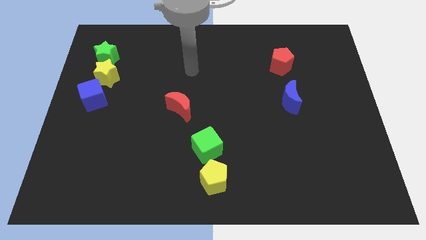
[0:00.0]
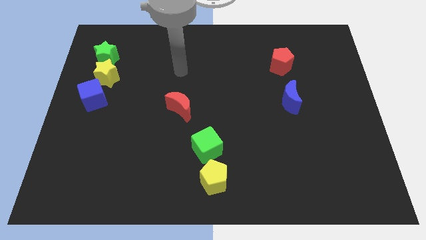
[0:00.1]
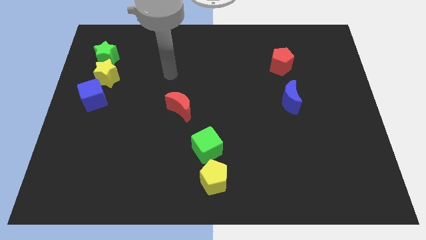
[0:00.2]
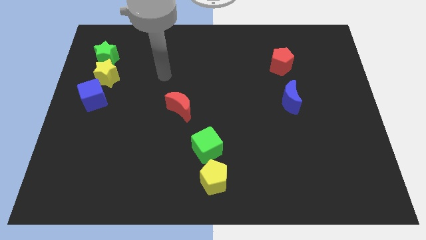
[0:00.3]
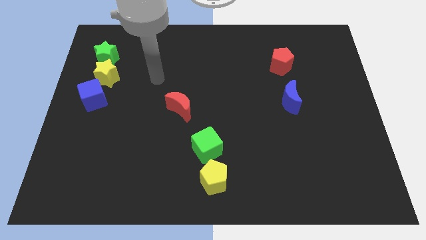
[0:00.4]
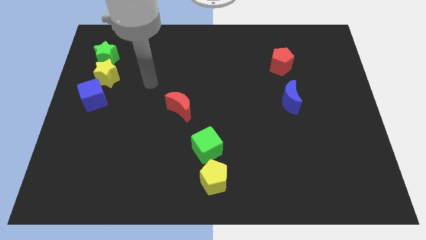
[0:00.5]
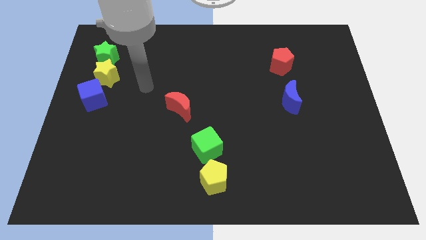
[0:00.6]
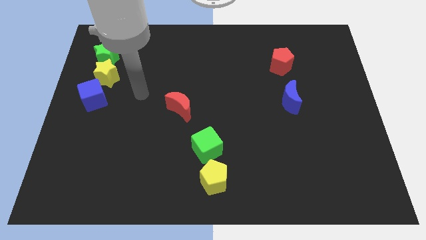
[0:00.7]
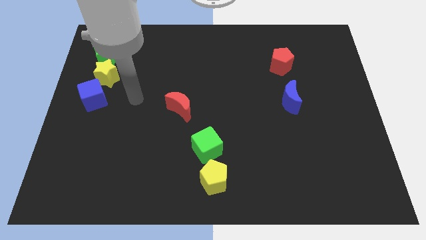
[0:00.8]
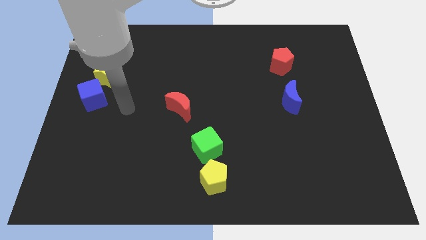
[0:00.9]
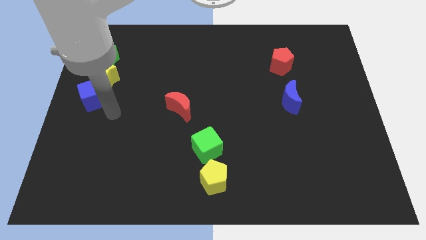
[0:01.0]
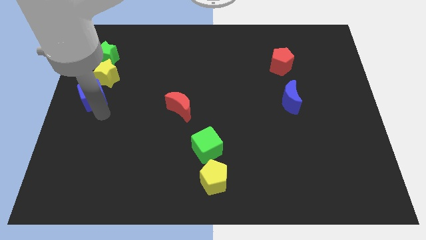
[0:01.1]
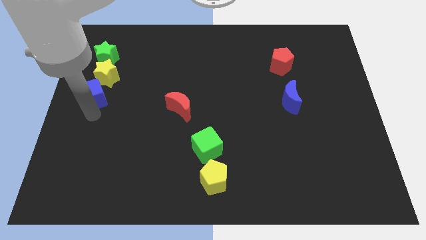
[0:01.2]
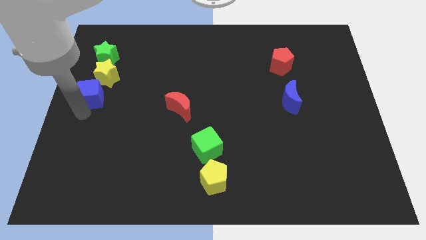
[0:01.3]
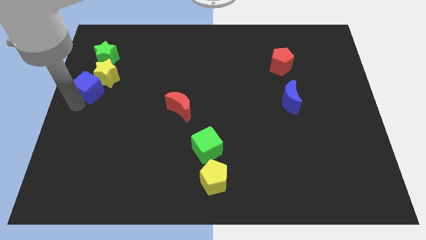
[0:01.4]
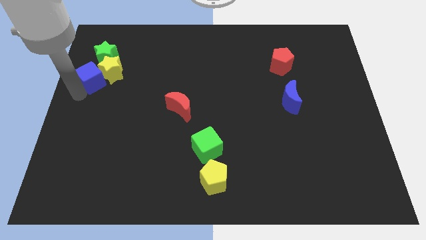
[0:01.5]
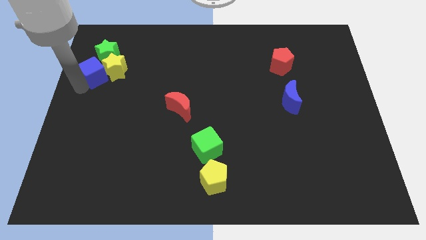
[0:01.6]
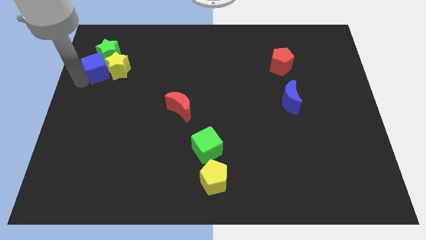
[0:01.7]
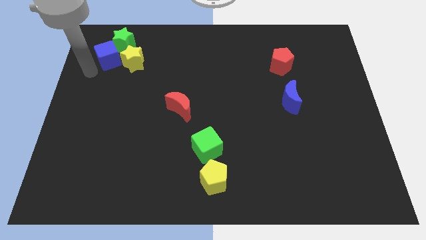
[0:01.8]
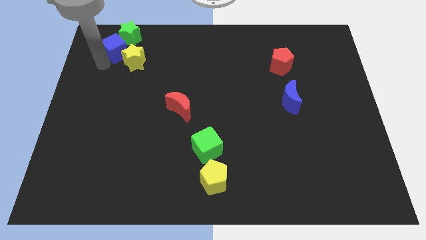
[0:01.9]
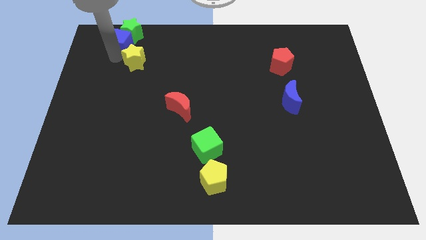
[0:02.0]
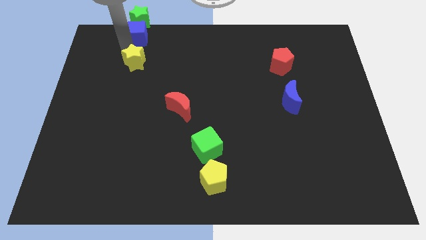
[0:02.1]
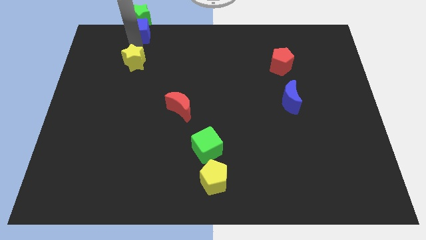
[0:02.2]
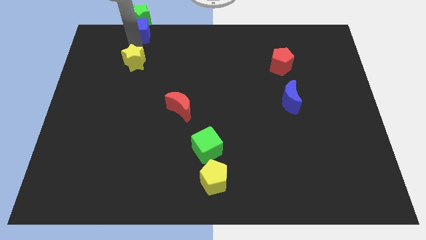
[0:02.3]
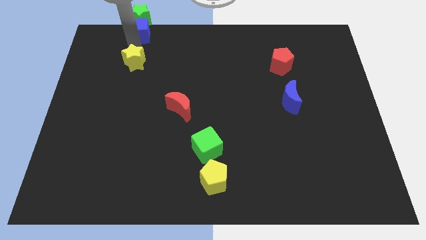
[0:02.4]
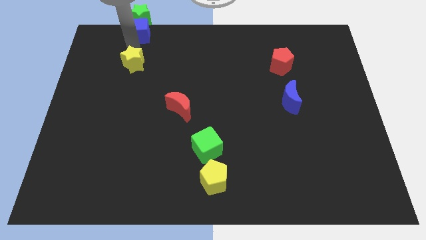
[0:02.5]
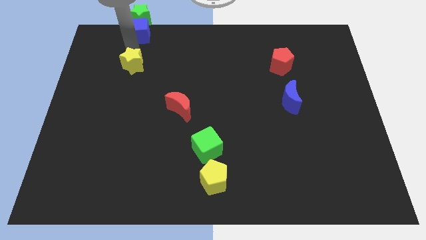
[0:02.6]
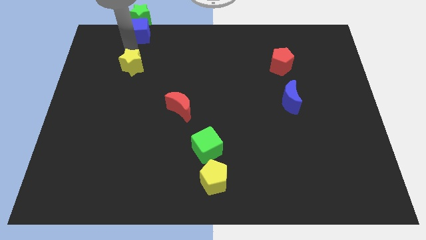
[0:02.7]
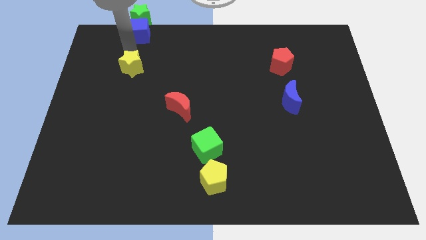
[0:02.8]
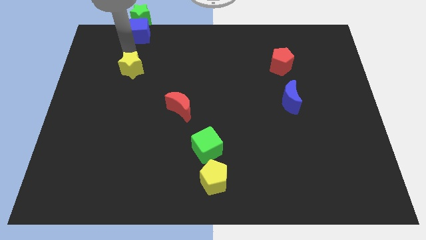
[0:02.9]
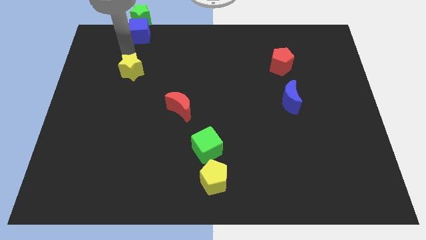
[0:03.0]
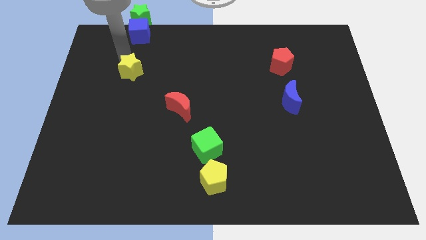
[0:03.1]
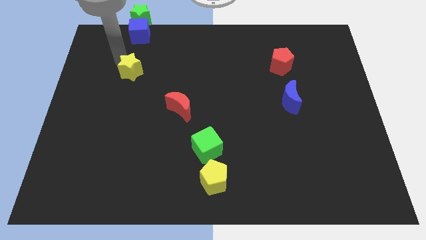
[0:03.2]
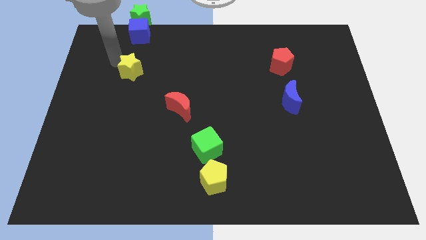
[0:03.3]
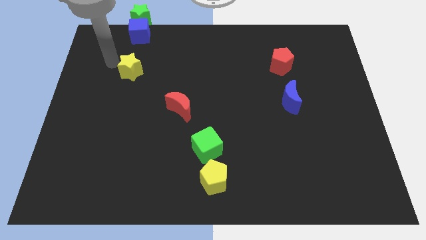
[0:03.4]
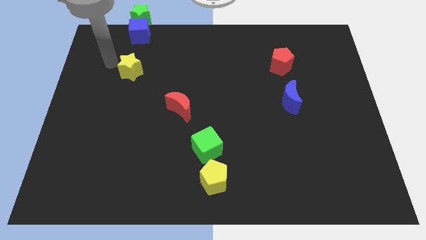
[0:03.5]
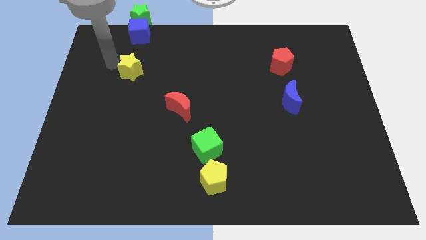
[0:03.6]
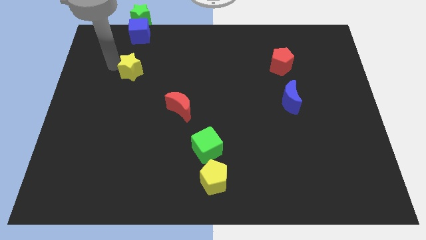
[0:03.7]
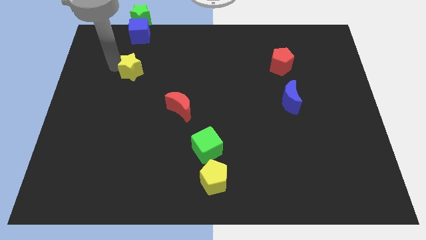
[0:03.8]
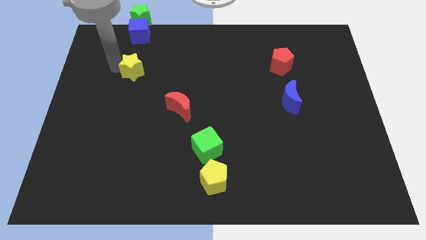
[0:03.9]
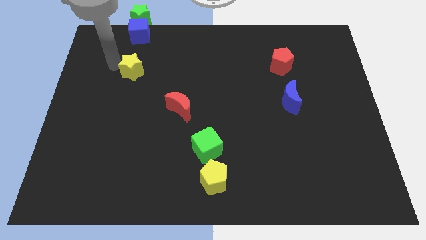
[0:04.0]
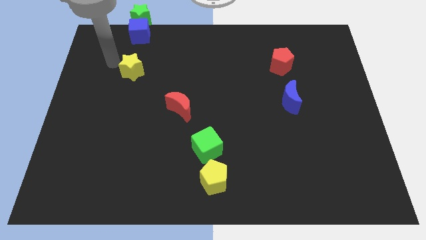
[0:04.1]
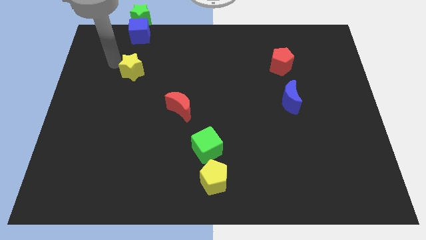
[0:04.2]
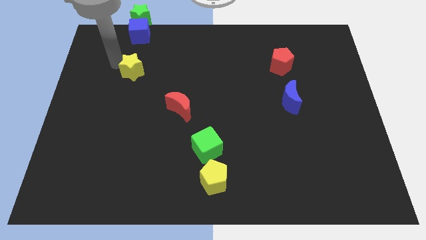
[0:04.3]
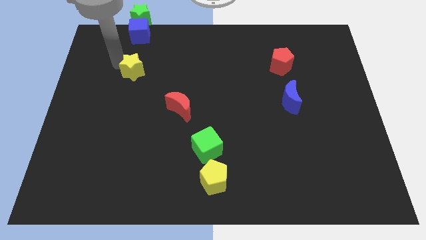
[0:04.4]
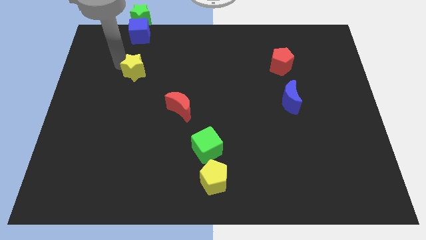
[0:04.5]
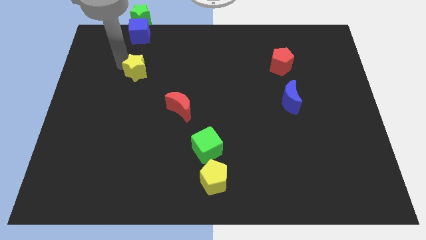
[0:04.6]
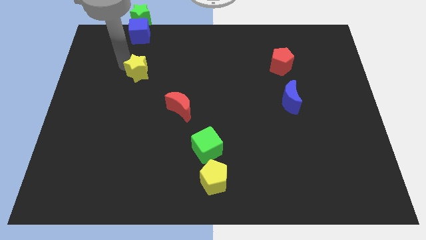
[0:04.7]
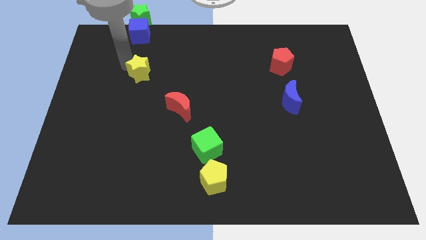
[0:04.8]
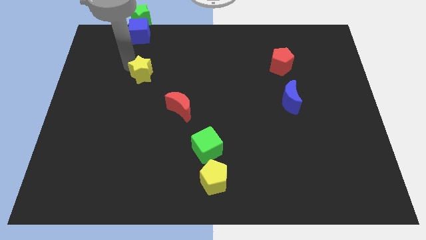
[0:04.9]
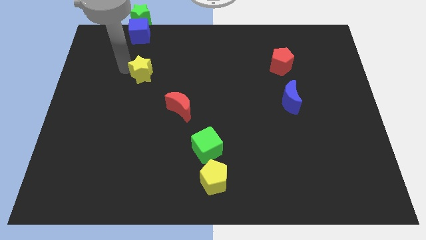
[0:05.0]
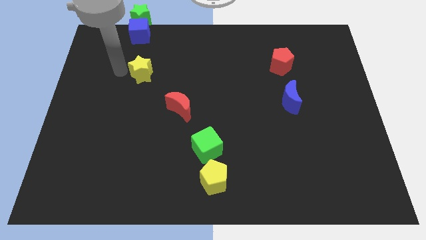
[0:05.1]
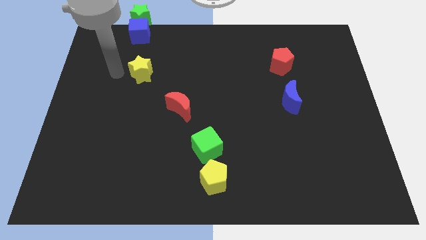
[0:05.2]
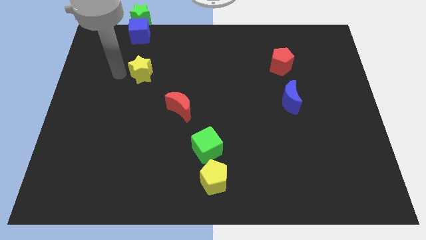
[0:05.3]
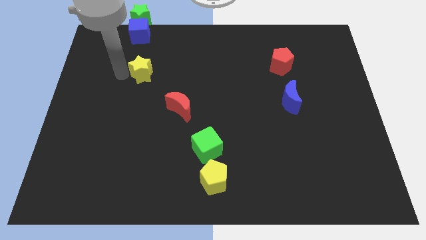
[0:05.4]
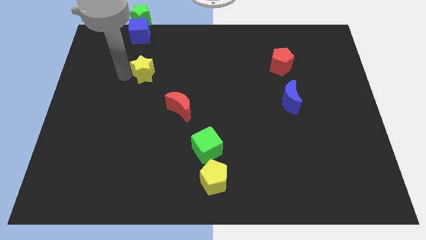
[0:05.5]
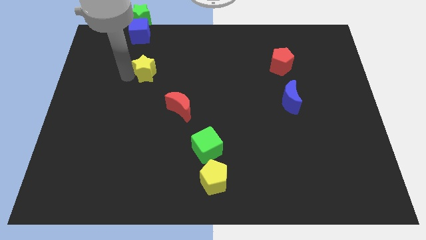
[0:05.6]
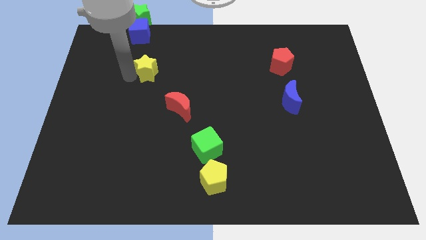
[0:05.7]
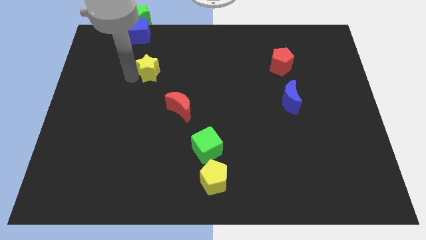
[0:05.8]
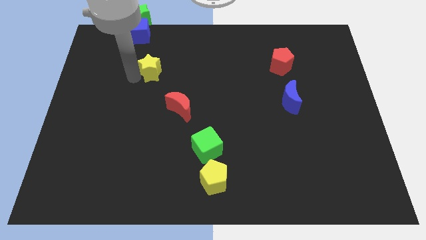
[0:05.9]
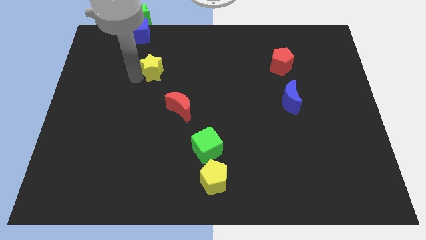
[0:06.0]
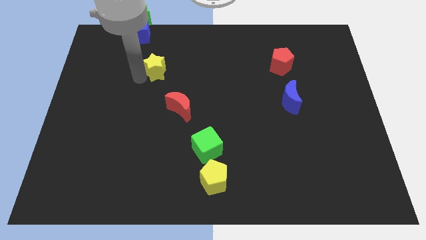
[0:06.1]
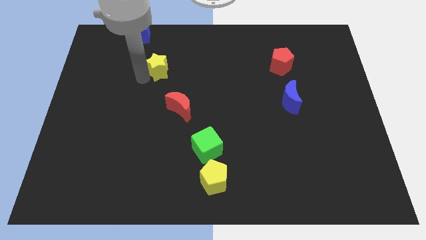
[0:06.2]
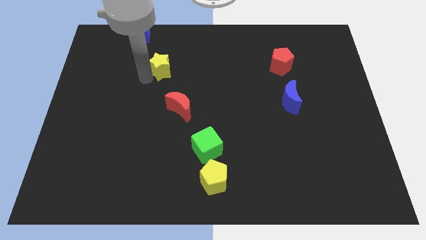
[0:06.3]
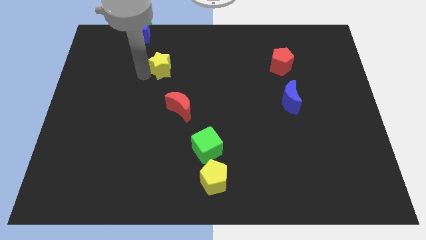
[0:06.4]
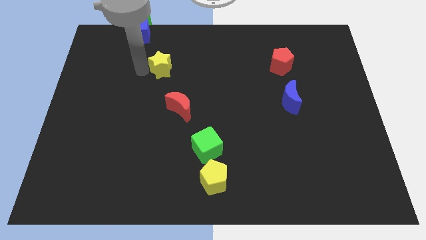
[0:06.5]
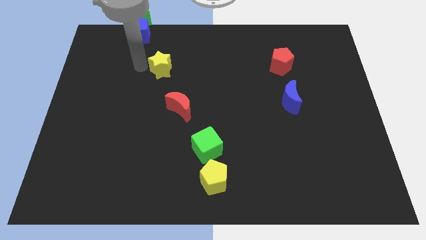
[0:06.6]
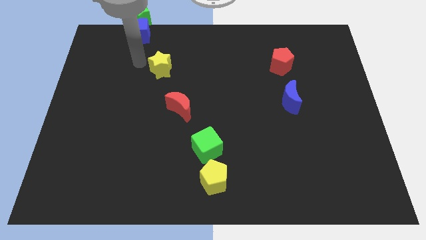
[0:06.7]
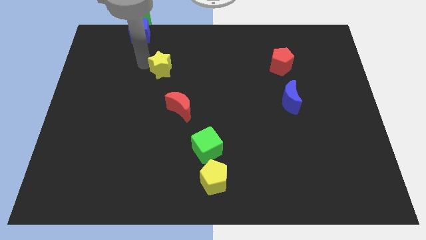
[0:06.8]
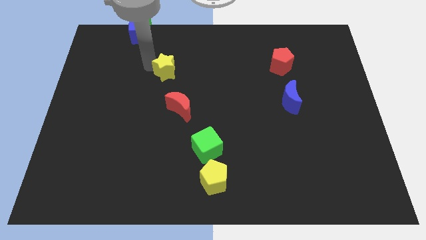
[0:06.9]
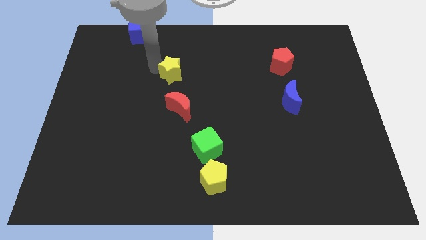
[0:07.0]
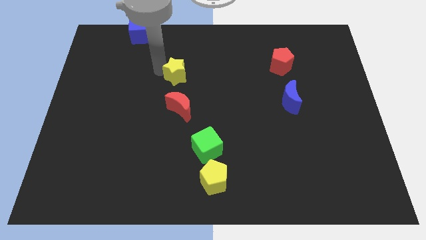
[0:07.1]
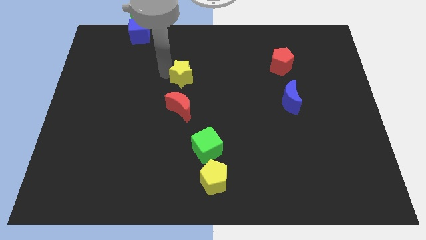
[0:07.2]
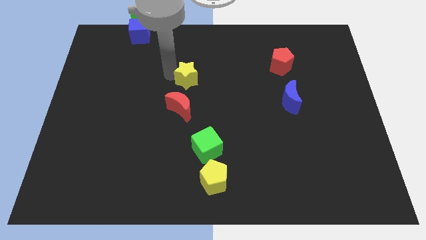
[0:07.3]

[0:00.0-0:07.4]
push the yellow star to the right

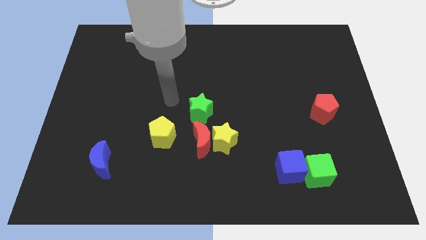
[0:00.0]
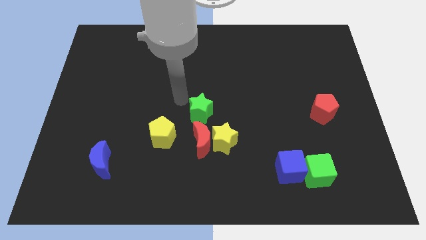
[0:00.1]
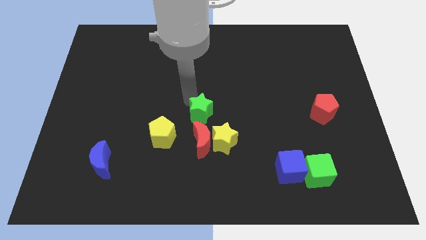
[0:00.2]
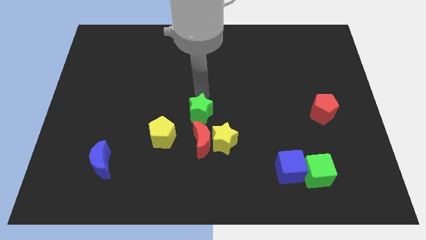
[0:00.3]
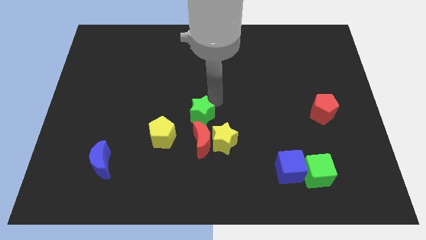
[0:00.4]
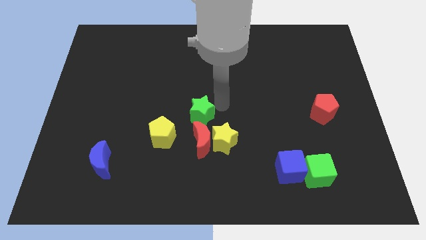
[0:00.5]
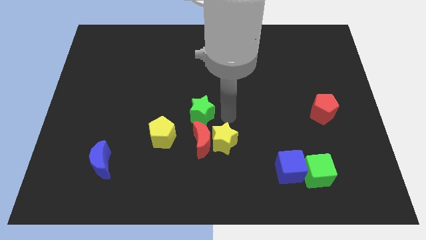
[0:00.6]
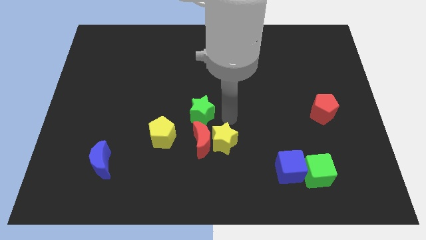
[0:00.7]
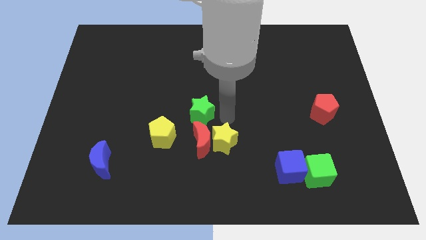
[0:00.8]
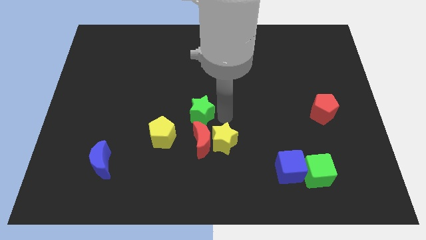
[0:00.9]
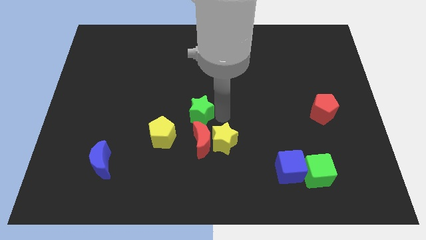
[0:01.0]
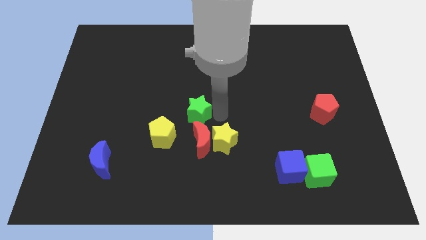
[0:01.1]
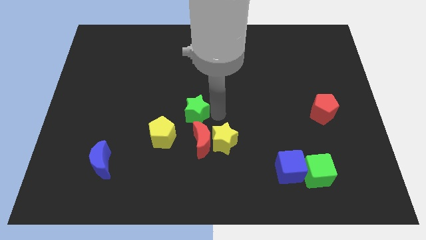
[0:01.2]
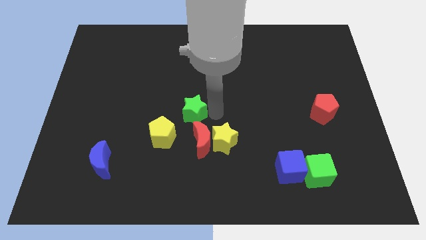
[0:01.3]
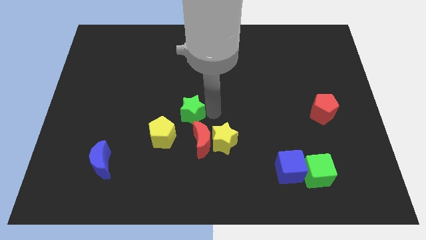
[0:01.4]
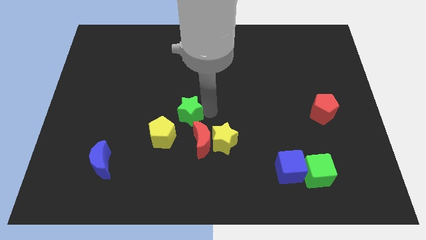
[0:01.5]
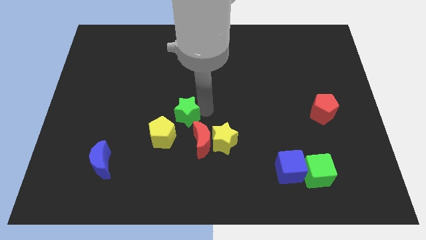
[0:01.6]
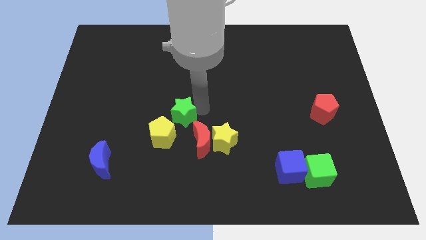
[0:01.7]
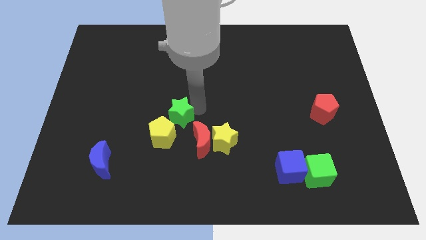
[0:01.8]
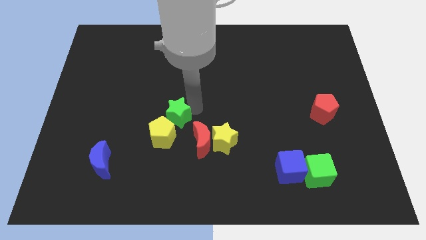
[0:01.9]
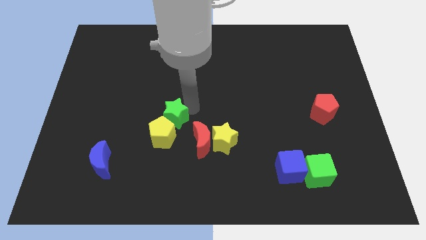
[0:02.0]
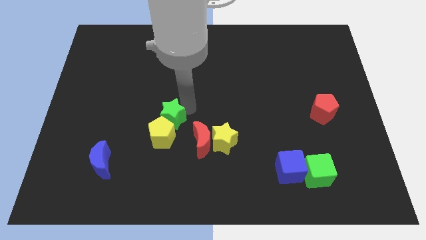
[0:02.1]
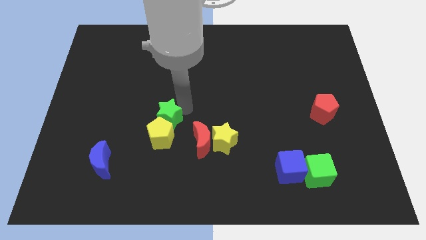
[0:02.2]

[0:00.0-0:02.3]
slightly move the green star to the left
